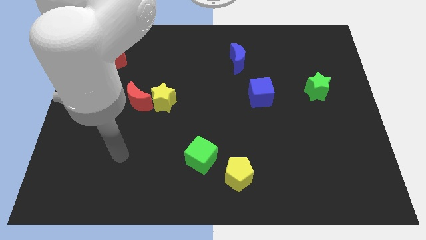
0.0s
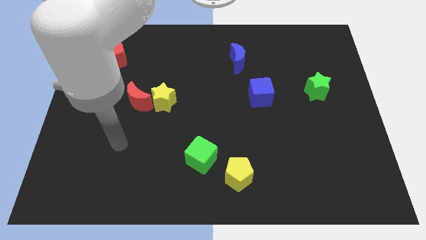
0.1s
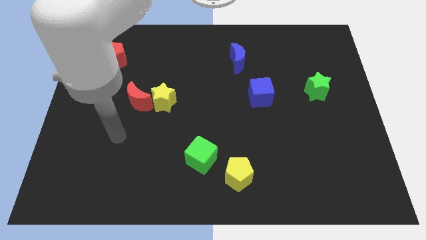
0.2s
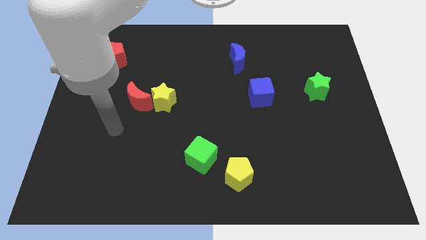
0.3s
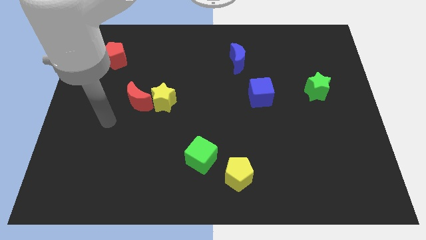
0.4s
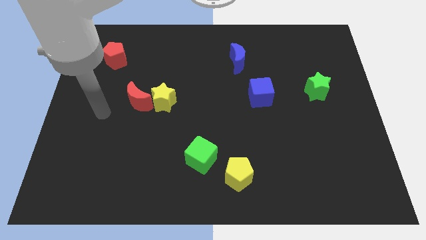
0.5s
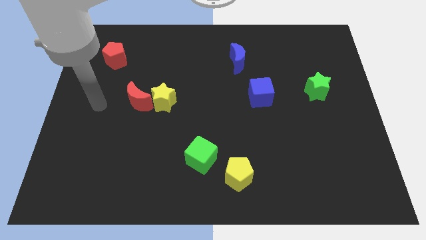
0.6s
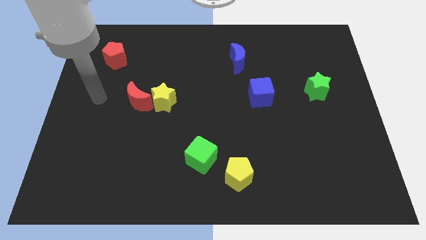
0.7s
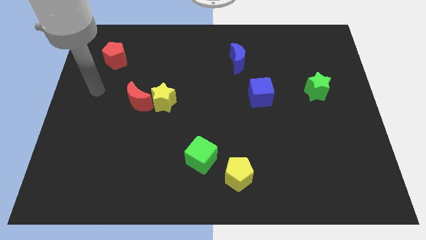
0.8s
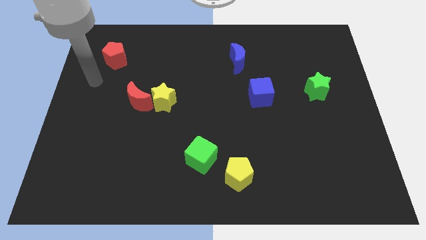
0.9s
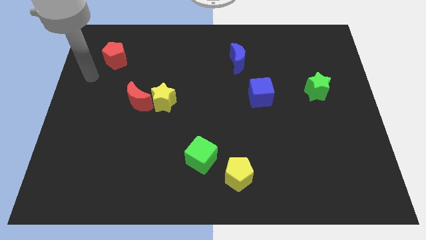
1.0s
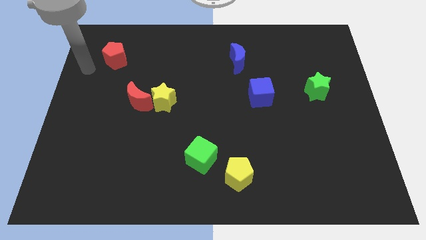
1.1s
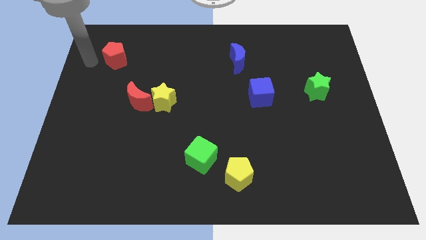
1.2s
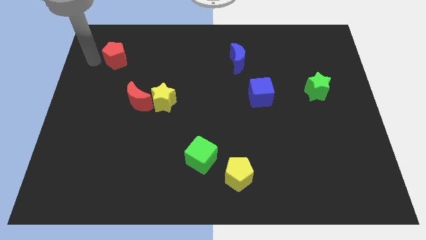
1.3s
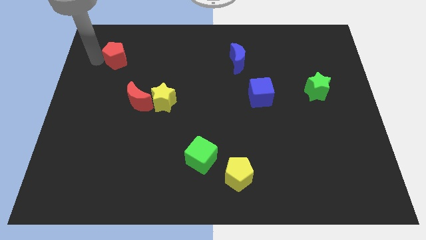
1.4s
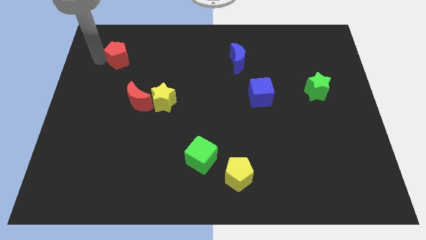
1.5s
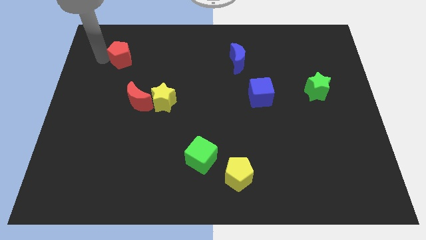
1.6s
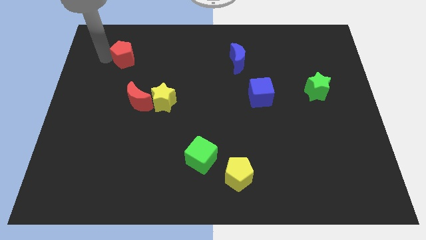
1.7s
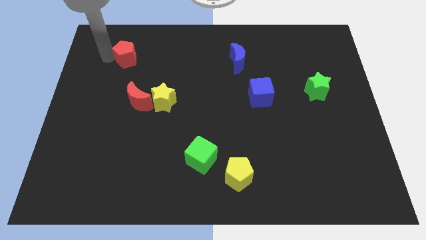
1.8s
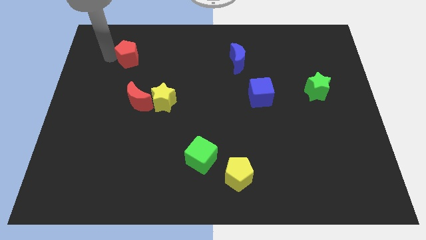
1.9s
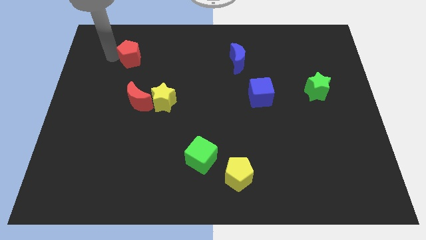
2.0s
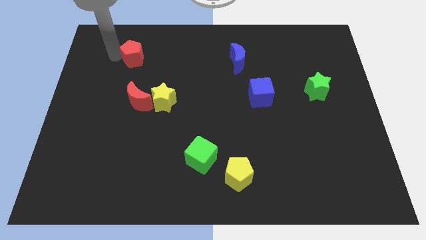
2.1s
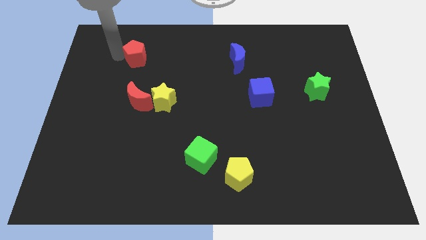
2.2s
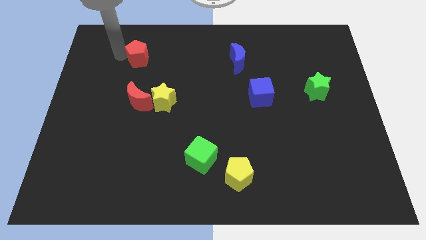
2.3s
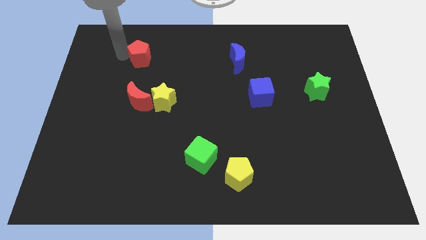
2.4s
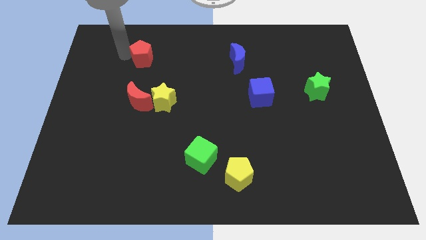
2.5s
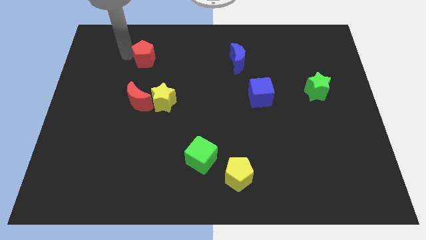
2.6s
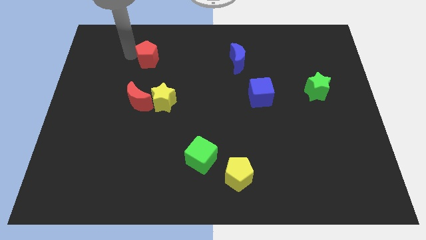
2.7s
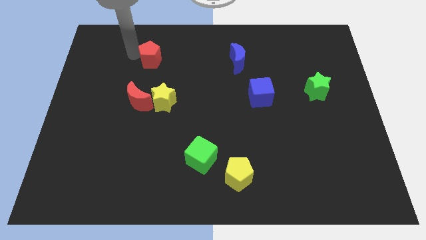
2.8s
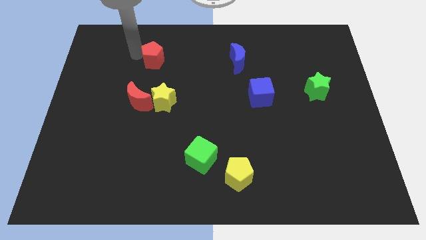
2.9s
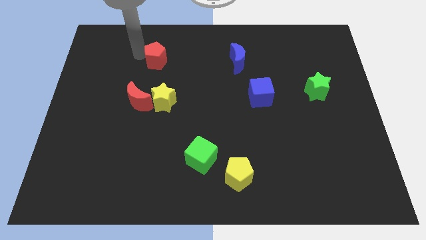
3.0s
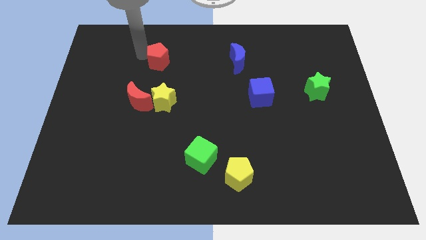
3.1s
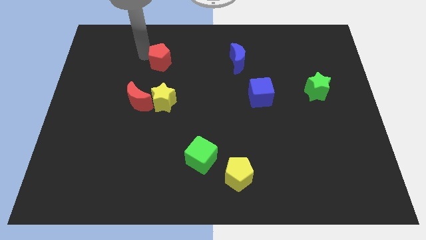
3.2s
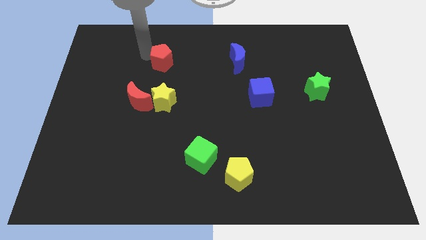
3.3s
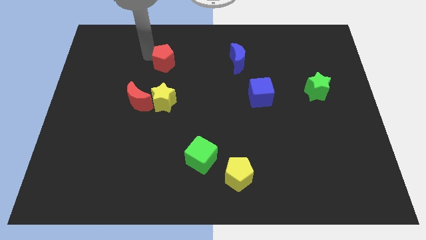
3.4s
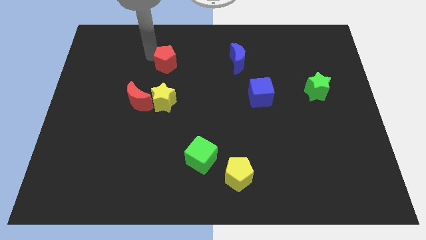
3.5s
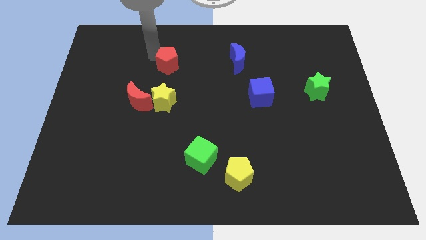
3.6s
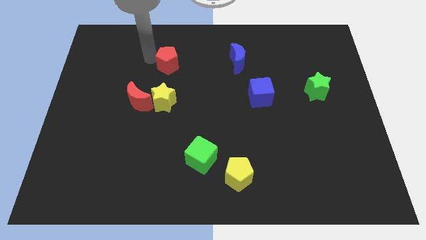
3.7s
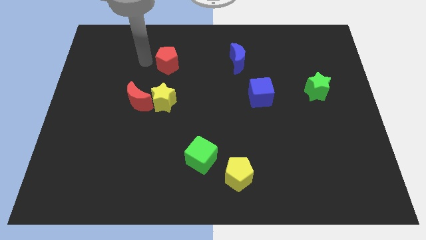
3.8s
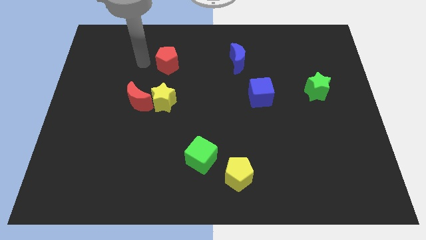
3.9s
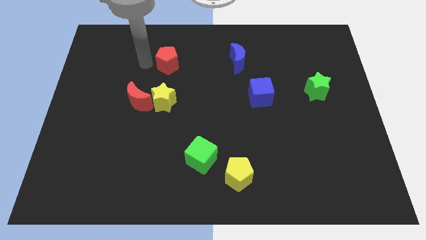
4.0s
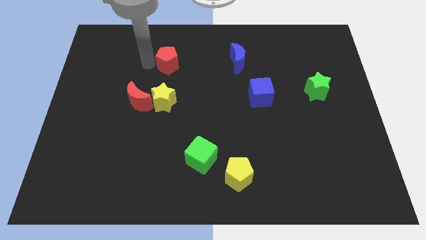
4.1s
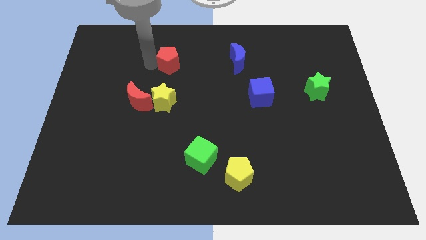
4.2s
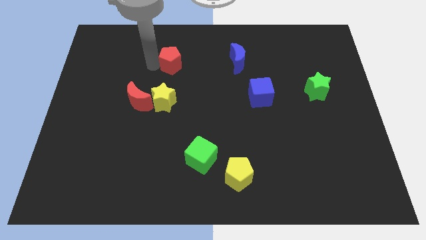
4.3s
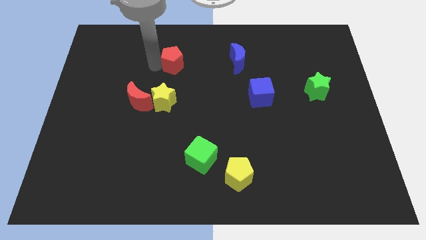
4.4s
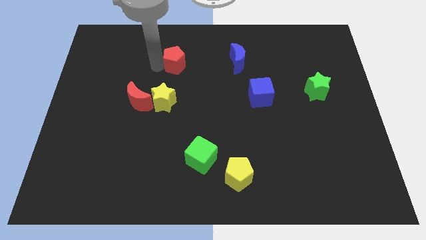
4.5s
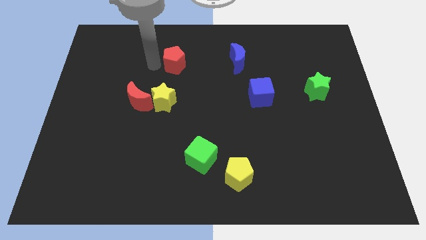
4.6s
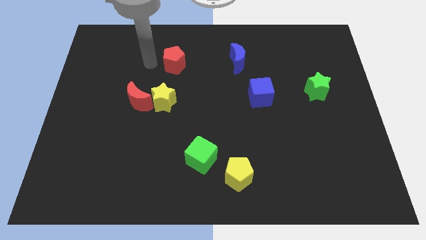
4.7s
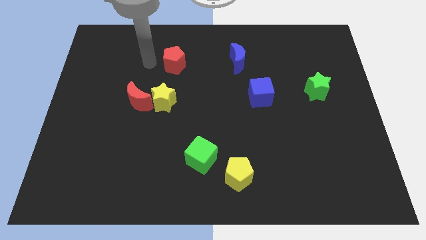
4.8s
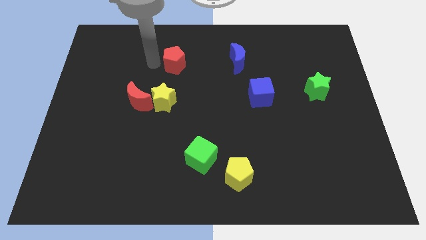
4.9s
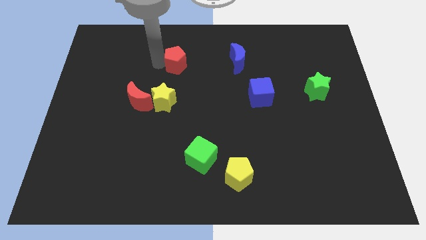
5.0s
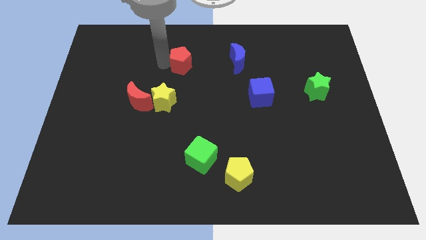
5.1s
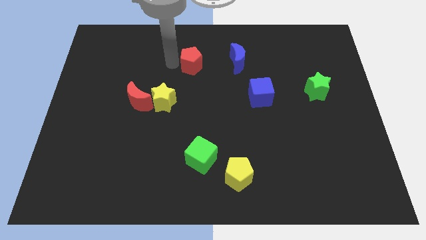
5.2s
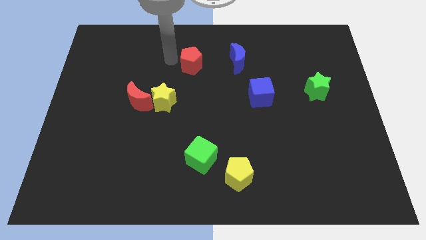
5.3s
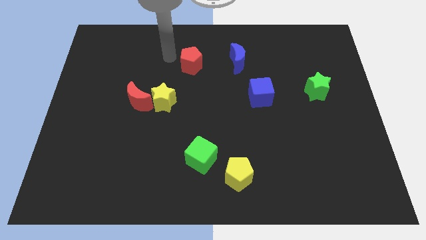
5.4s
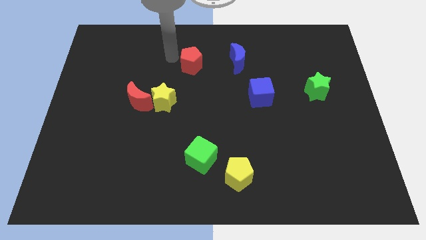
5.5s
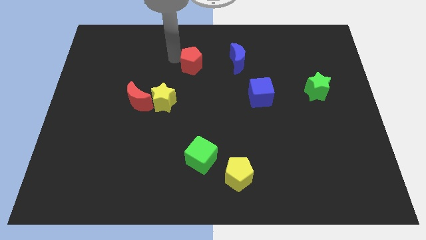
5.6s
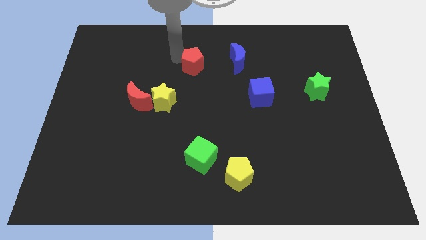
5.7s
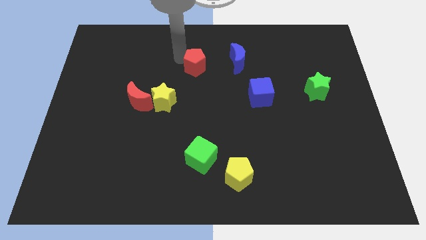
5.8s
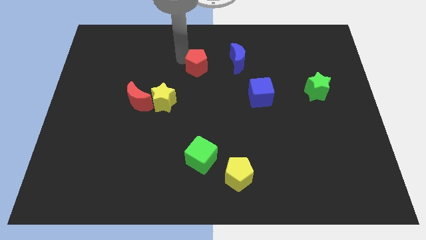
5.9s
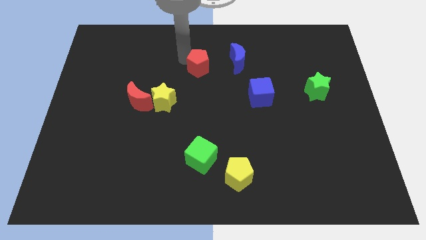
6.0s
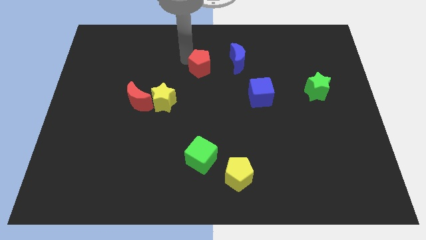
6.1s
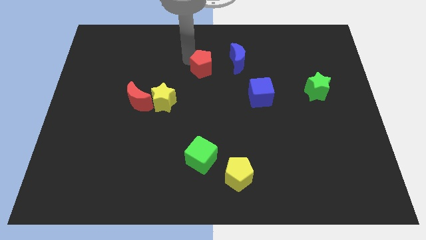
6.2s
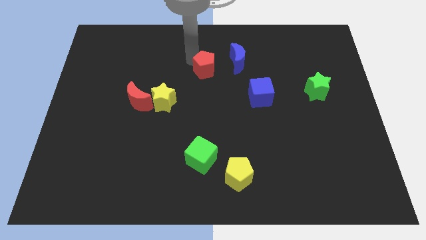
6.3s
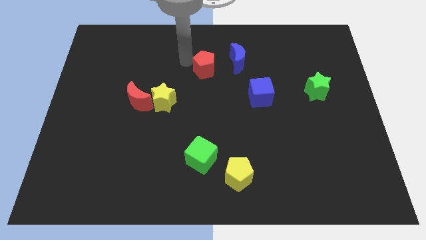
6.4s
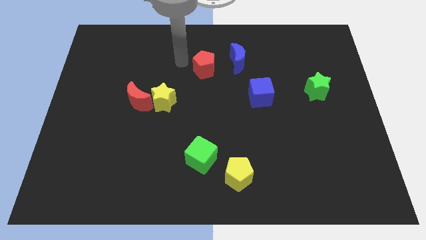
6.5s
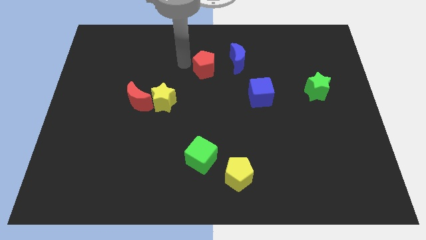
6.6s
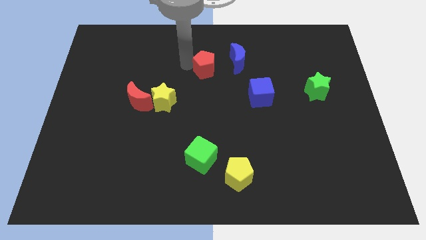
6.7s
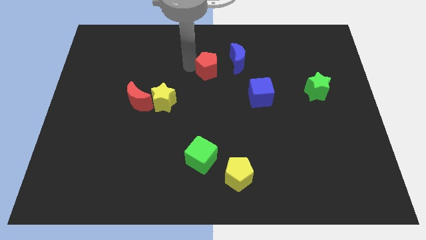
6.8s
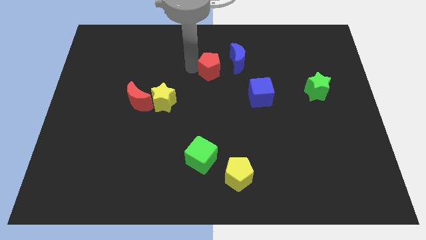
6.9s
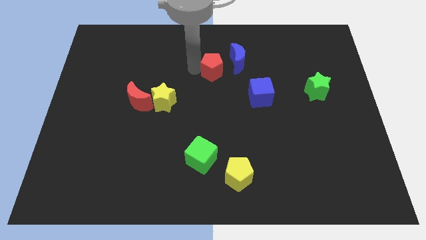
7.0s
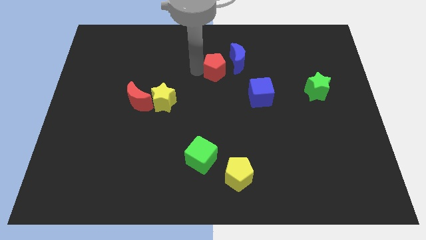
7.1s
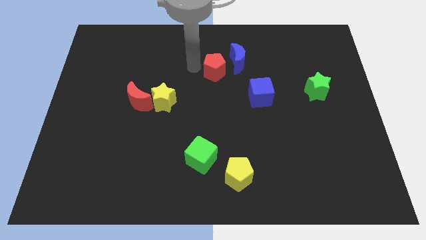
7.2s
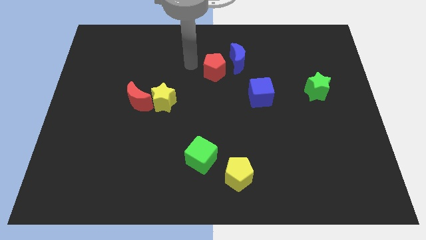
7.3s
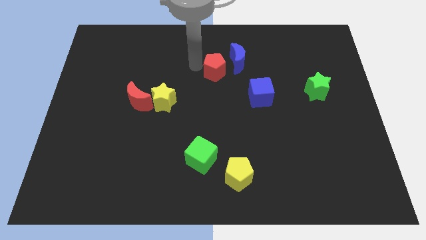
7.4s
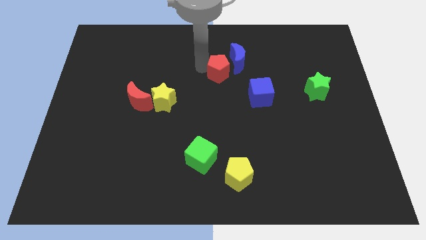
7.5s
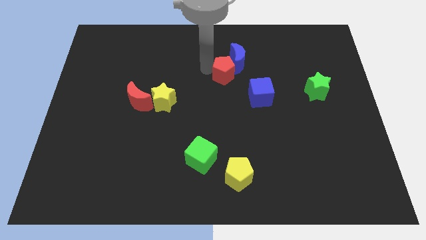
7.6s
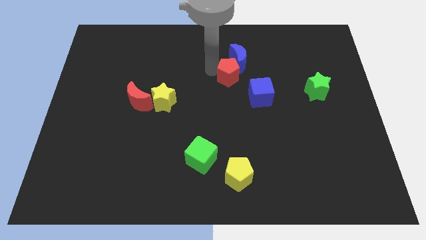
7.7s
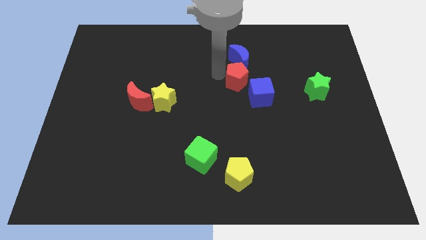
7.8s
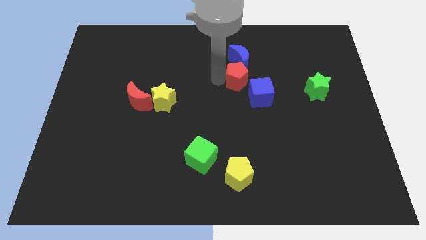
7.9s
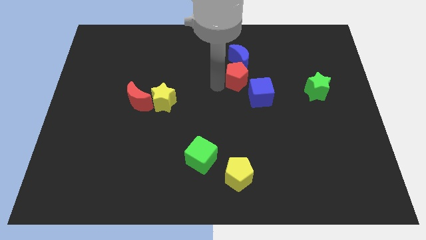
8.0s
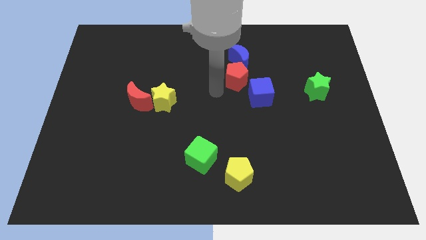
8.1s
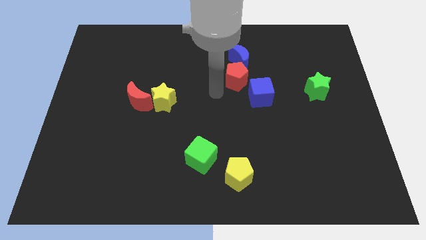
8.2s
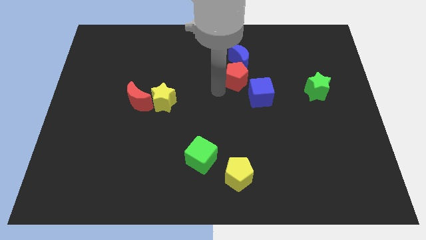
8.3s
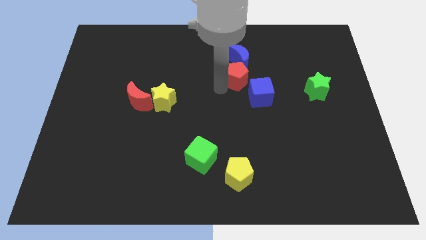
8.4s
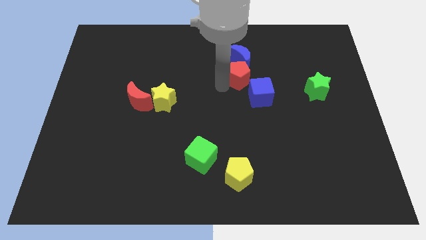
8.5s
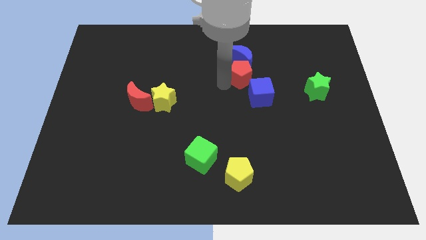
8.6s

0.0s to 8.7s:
slide the red pentagon to the top side of the blue cube
